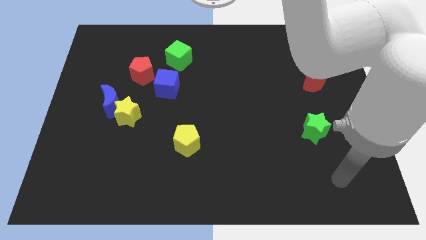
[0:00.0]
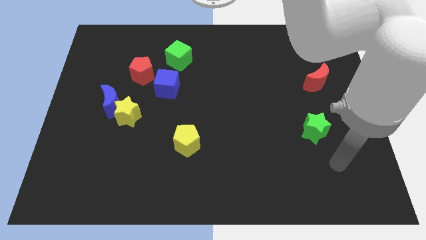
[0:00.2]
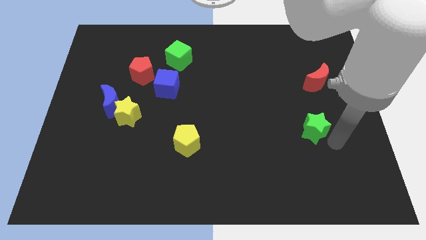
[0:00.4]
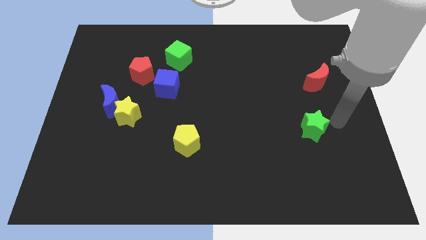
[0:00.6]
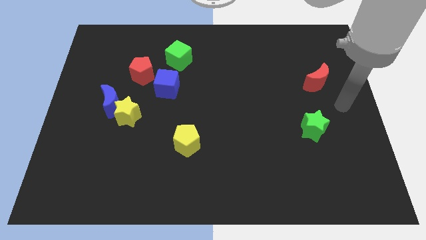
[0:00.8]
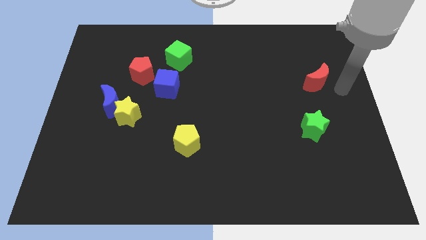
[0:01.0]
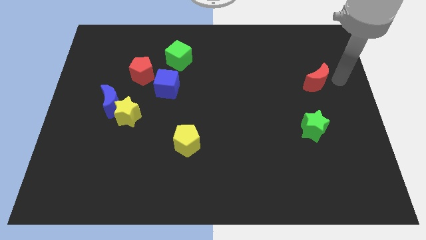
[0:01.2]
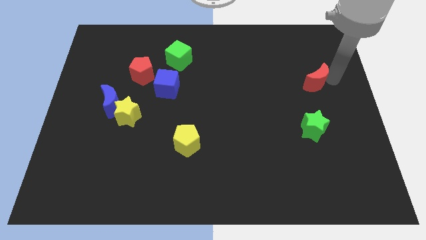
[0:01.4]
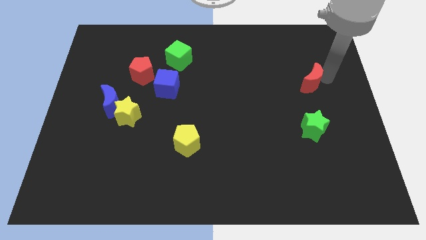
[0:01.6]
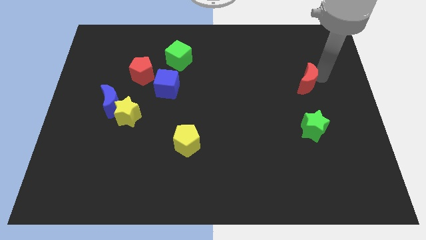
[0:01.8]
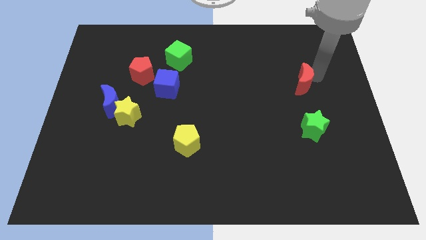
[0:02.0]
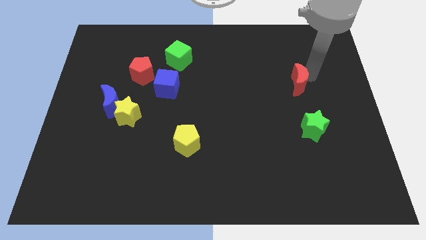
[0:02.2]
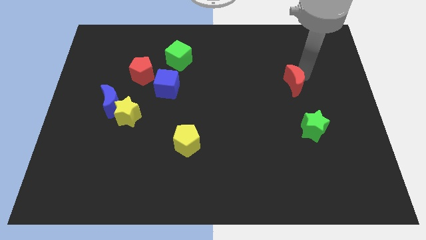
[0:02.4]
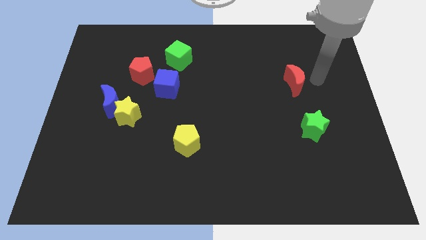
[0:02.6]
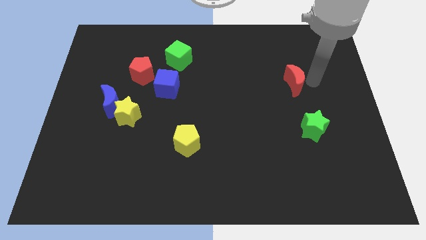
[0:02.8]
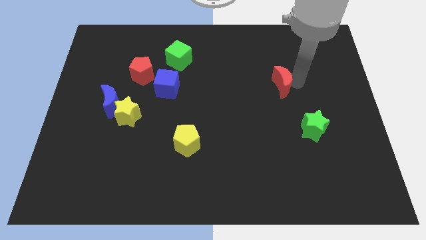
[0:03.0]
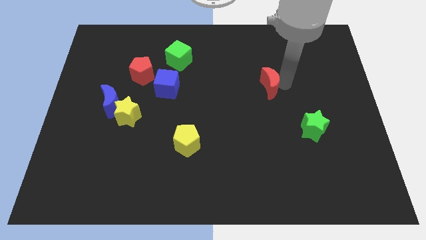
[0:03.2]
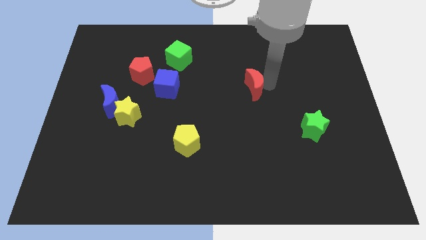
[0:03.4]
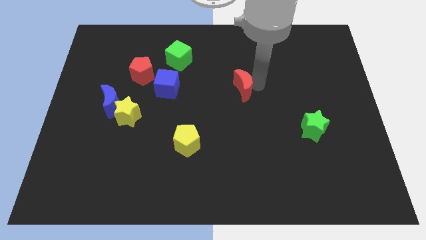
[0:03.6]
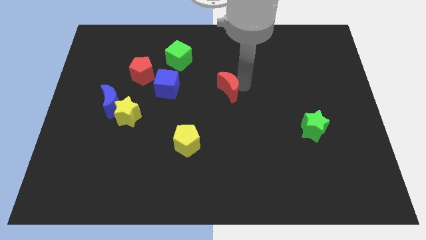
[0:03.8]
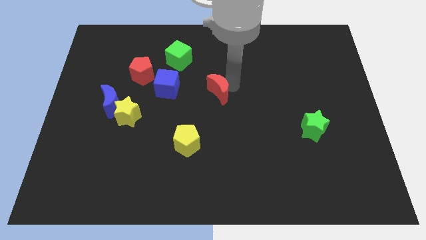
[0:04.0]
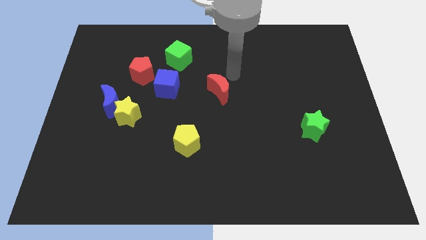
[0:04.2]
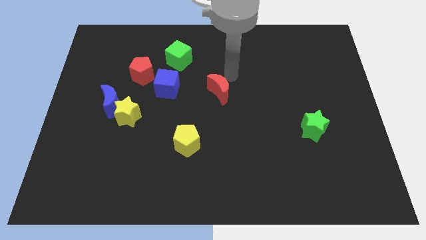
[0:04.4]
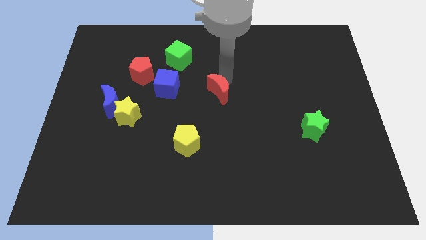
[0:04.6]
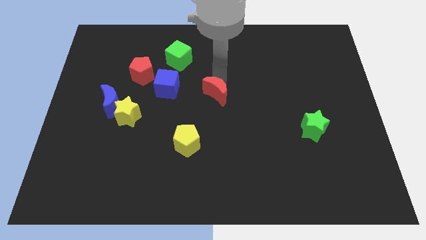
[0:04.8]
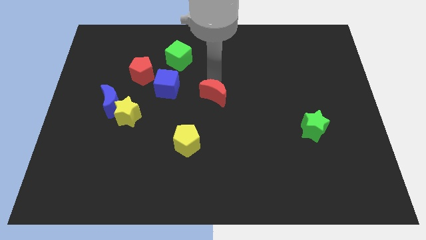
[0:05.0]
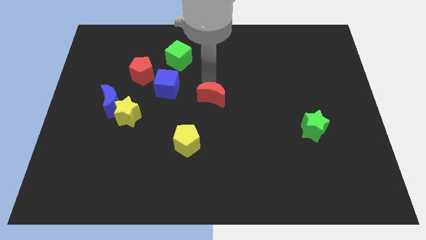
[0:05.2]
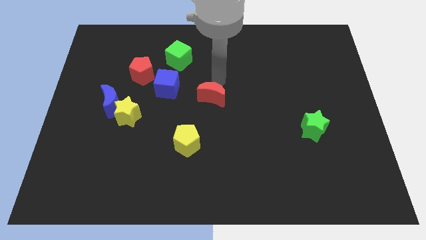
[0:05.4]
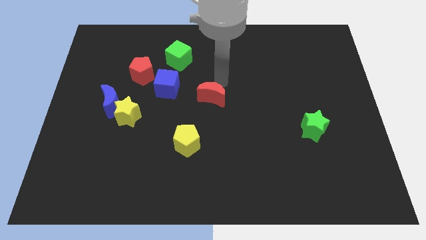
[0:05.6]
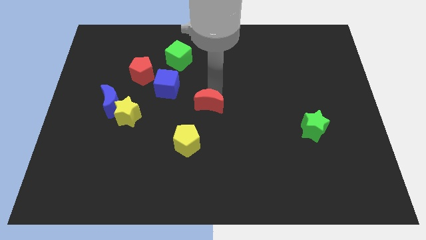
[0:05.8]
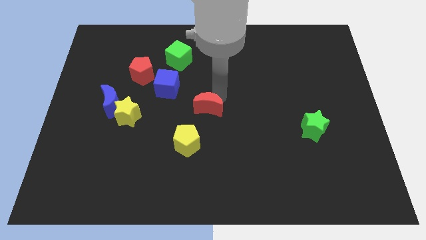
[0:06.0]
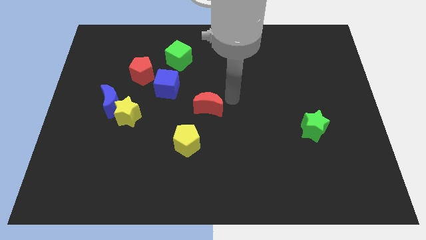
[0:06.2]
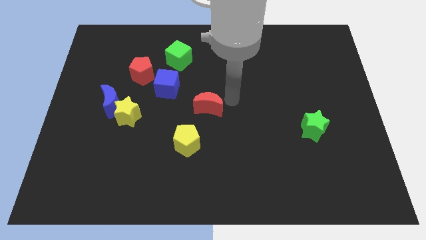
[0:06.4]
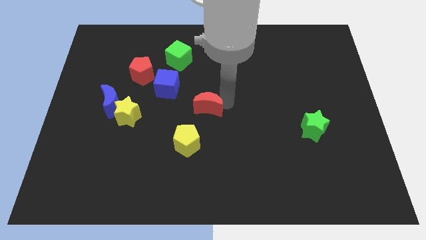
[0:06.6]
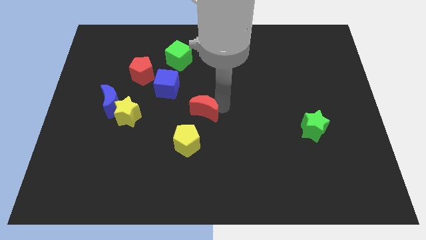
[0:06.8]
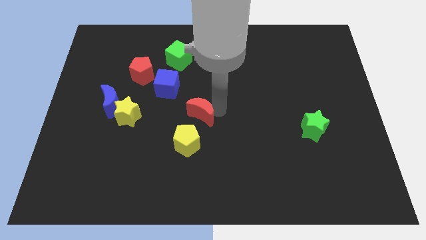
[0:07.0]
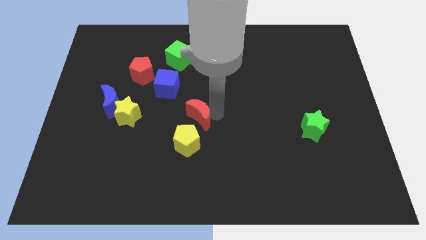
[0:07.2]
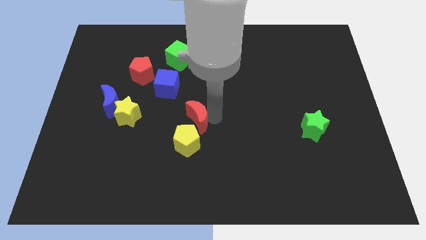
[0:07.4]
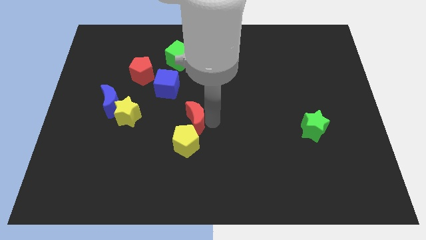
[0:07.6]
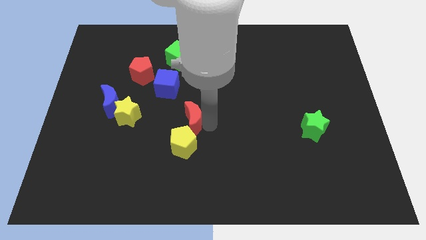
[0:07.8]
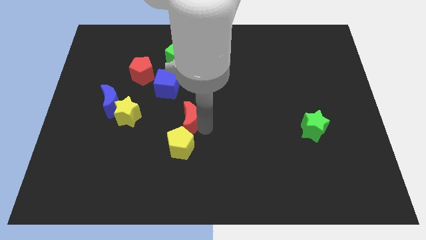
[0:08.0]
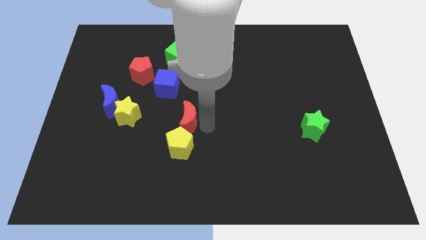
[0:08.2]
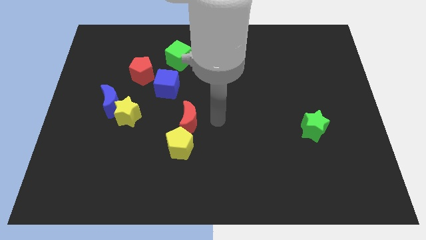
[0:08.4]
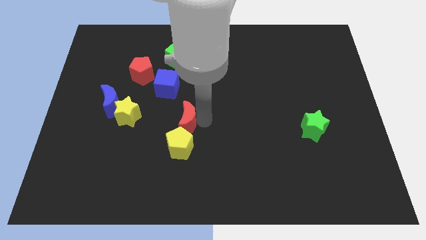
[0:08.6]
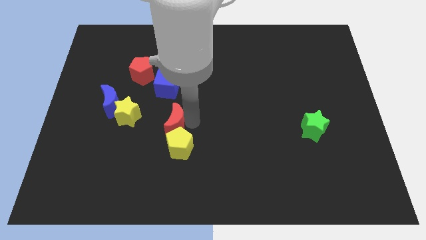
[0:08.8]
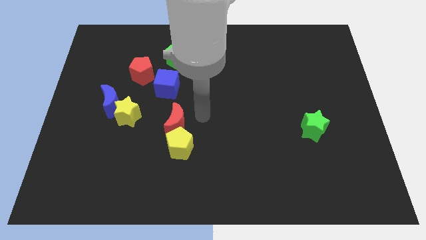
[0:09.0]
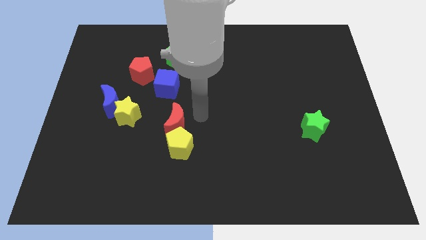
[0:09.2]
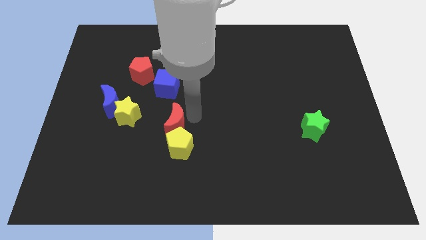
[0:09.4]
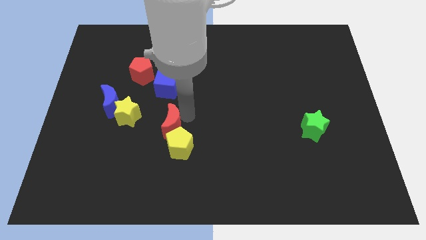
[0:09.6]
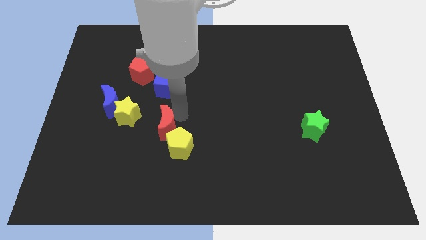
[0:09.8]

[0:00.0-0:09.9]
slide the red moon to the bottom right side of the yellow star
